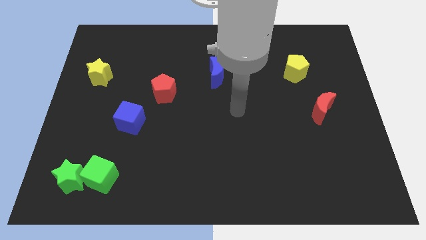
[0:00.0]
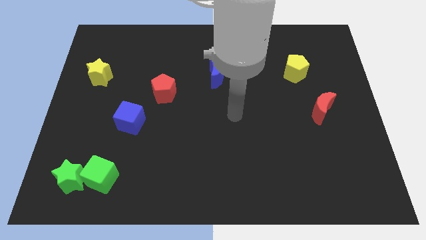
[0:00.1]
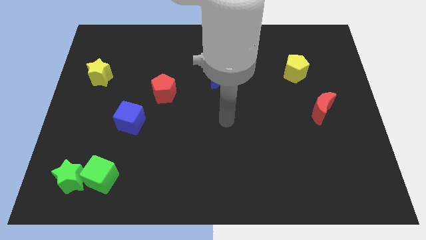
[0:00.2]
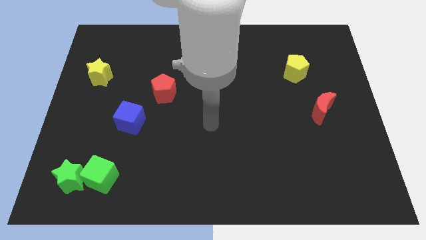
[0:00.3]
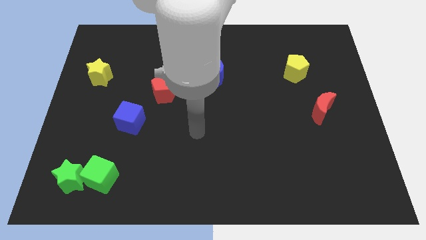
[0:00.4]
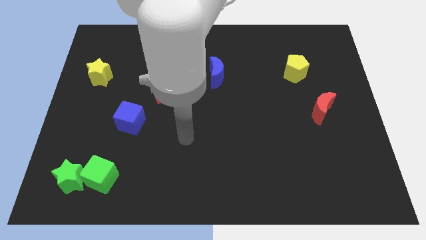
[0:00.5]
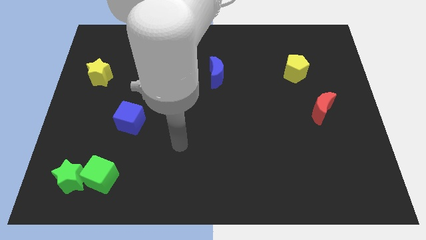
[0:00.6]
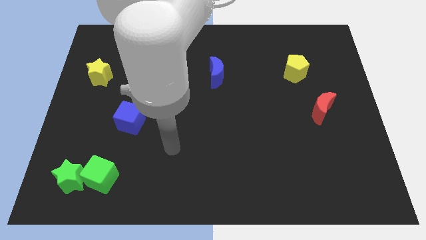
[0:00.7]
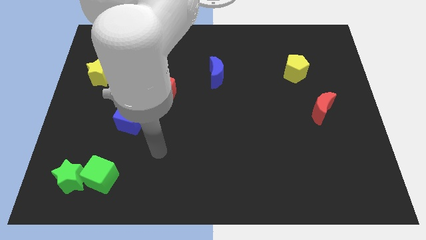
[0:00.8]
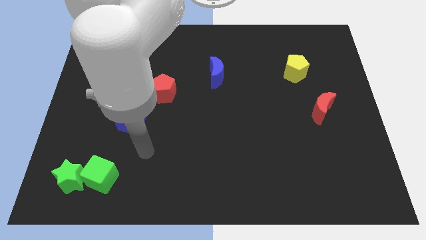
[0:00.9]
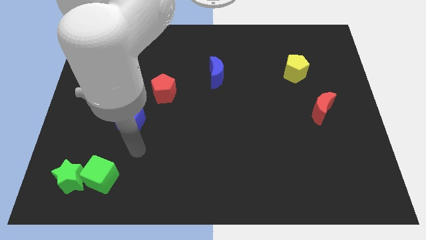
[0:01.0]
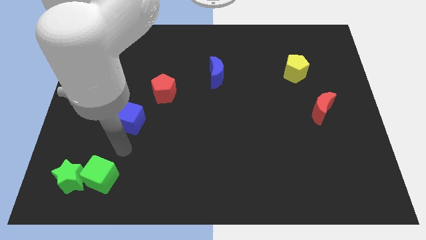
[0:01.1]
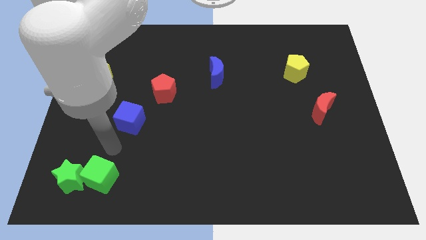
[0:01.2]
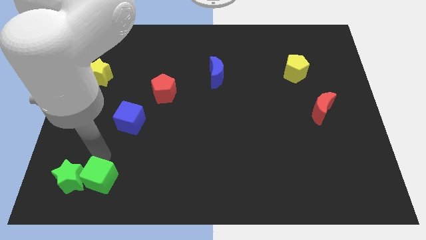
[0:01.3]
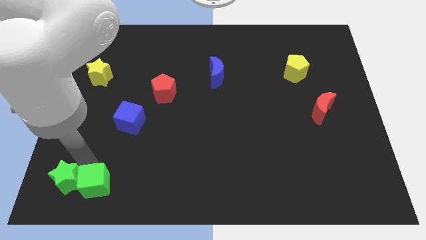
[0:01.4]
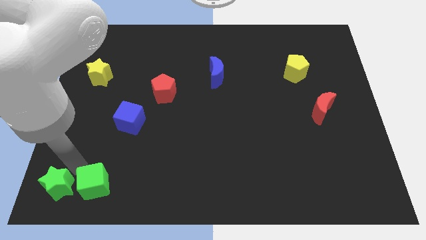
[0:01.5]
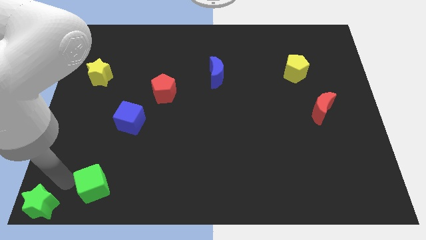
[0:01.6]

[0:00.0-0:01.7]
move the green cube away from the green star

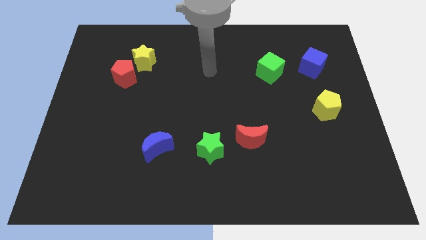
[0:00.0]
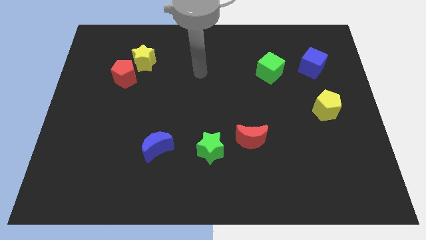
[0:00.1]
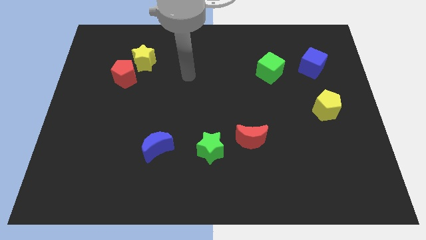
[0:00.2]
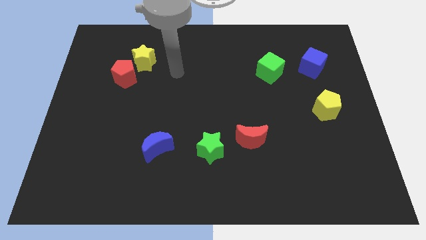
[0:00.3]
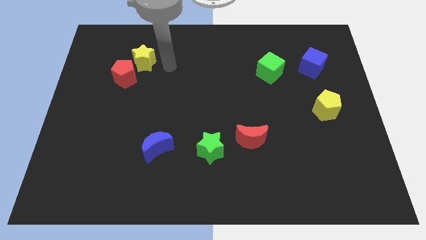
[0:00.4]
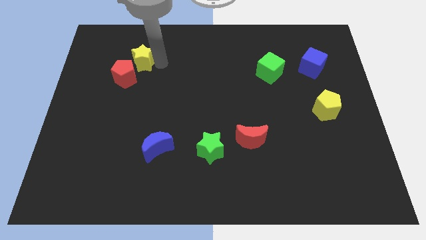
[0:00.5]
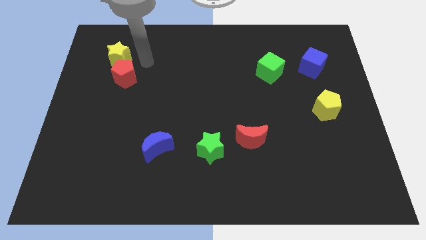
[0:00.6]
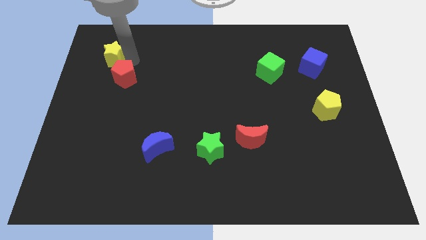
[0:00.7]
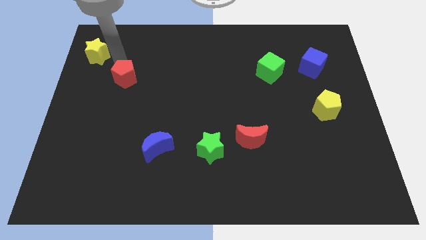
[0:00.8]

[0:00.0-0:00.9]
move the red pentagon away from the yellow star

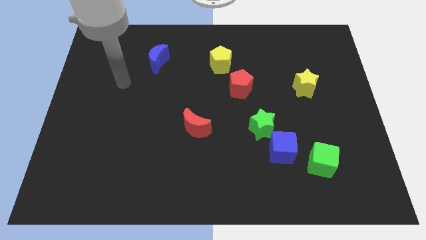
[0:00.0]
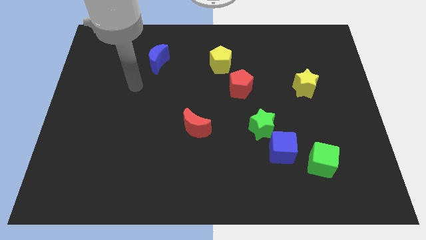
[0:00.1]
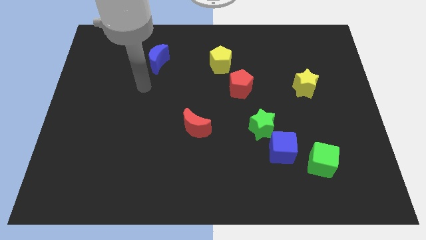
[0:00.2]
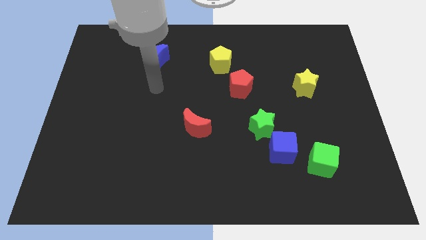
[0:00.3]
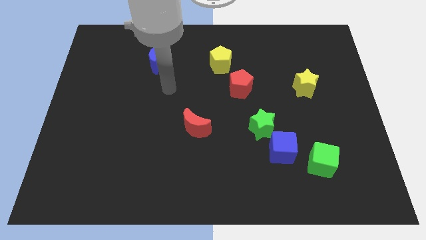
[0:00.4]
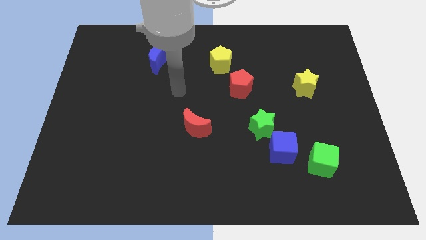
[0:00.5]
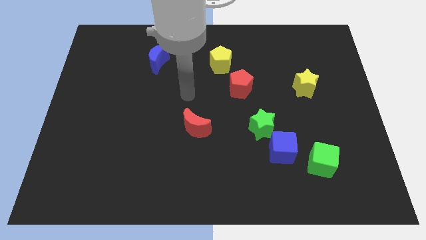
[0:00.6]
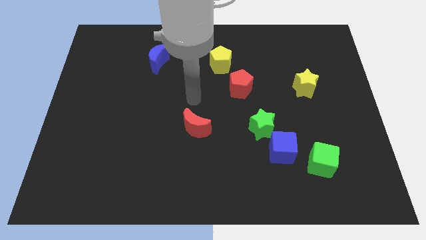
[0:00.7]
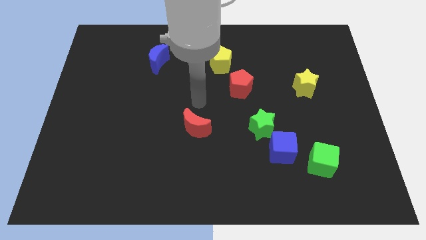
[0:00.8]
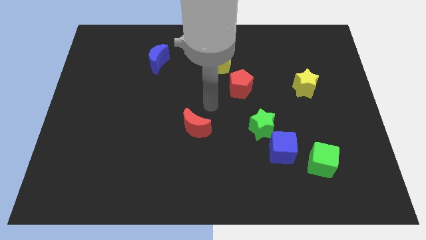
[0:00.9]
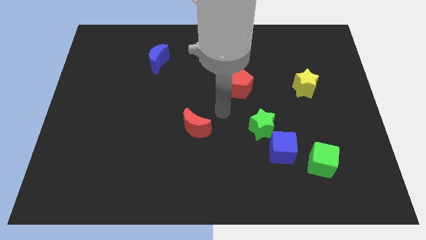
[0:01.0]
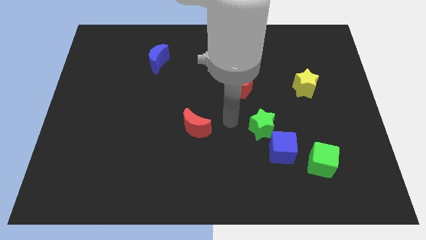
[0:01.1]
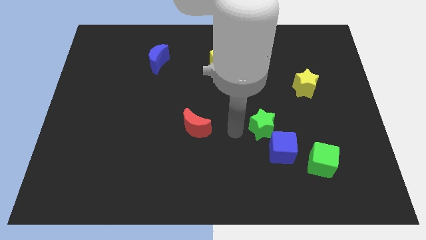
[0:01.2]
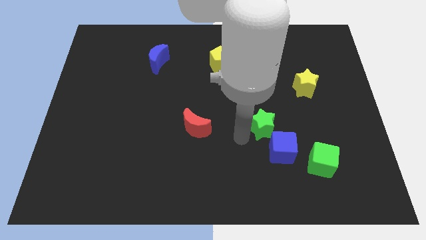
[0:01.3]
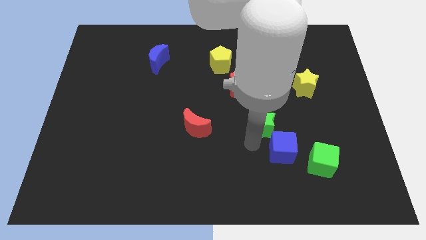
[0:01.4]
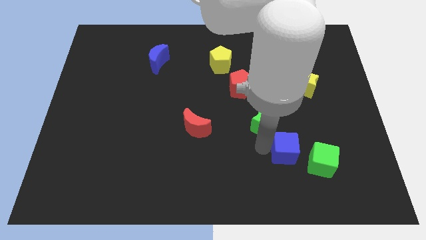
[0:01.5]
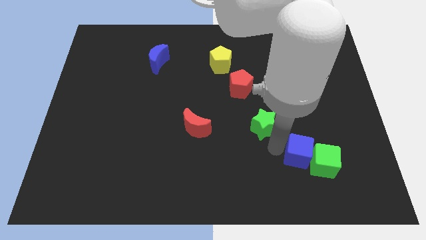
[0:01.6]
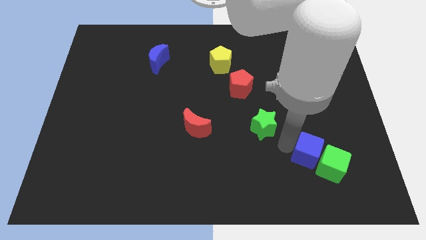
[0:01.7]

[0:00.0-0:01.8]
move the green star away from the blue cube

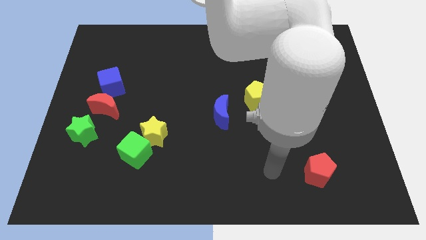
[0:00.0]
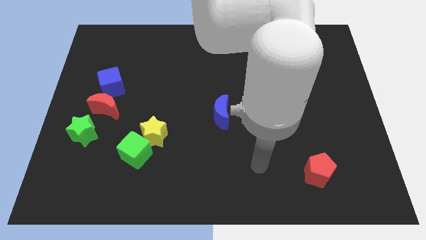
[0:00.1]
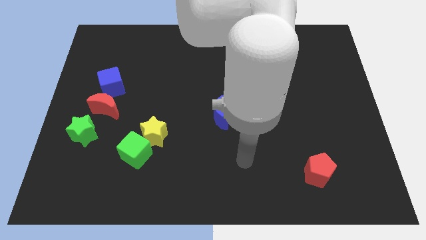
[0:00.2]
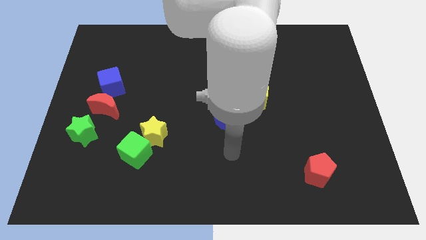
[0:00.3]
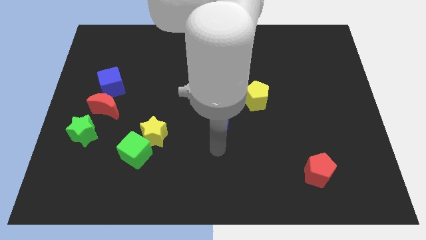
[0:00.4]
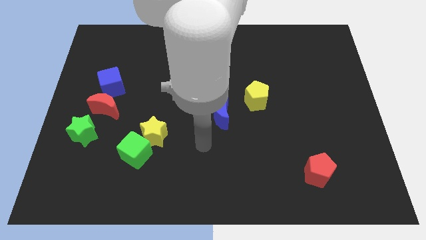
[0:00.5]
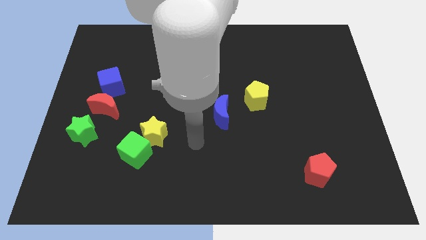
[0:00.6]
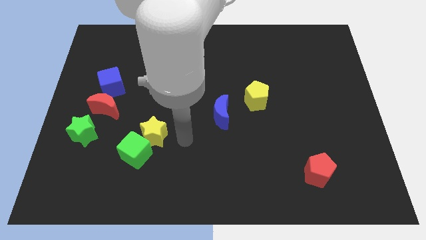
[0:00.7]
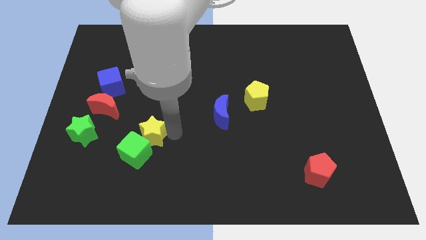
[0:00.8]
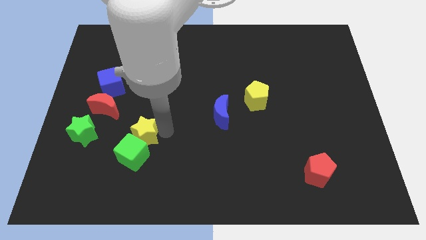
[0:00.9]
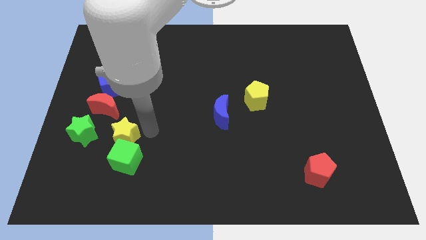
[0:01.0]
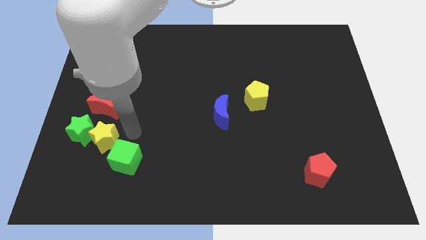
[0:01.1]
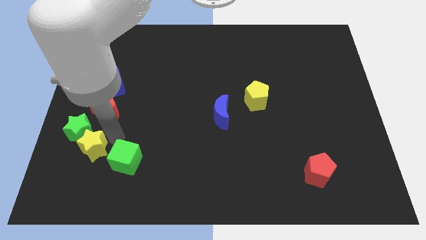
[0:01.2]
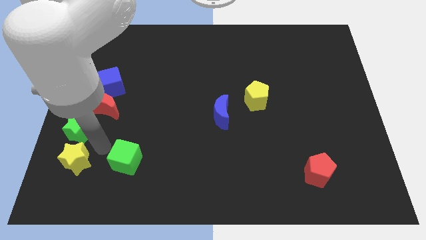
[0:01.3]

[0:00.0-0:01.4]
move the green cube away from the yellow star

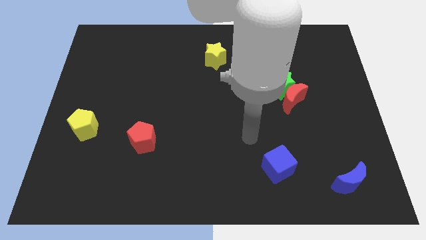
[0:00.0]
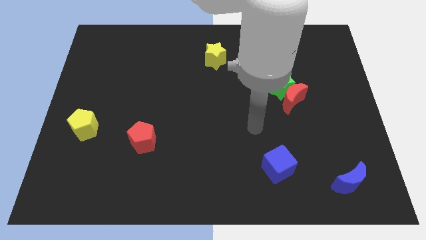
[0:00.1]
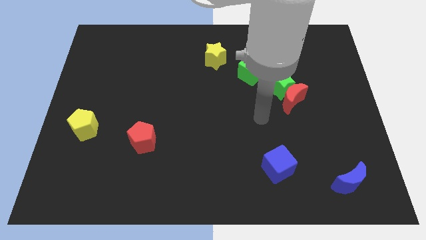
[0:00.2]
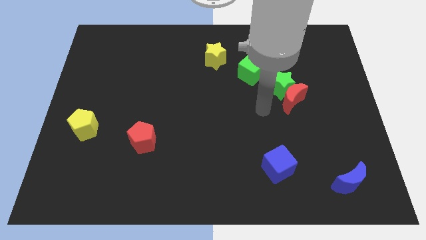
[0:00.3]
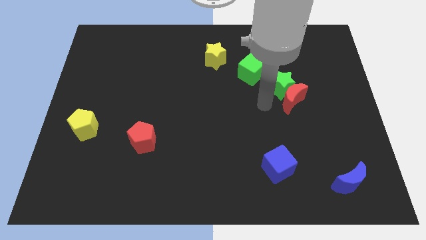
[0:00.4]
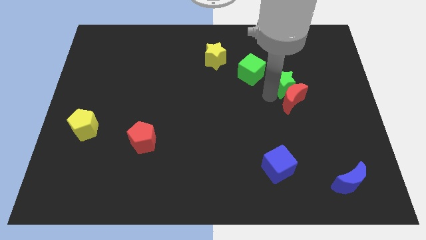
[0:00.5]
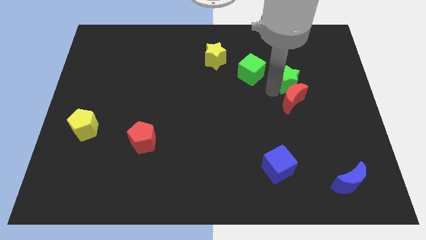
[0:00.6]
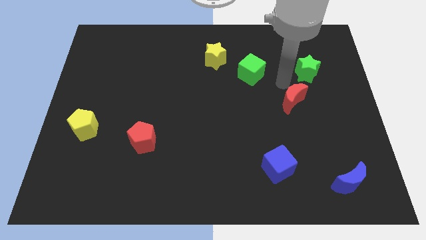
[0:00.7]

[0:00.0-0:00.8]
pull the red moon apart from the green star

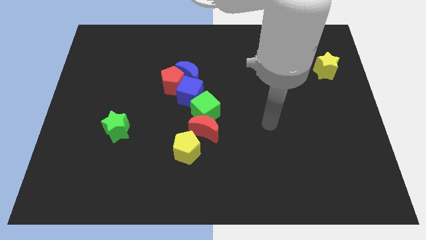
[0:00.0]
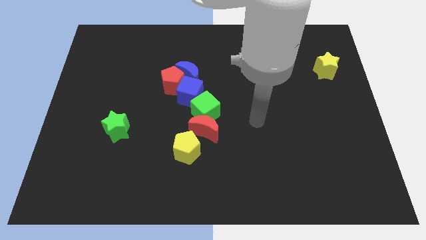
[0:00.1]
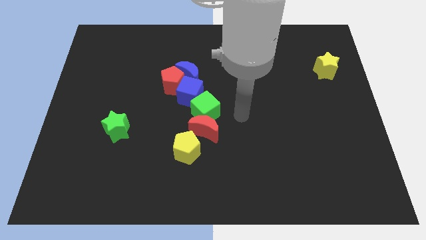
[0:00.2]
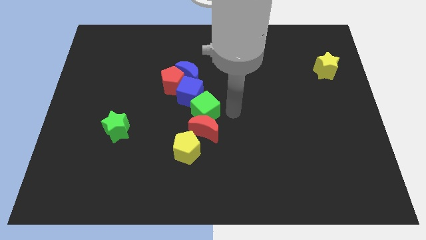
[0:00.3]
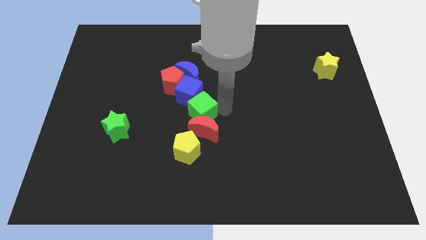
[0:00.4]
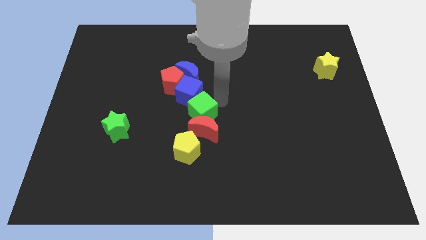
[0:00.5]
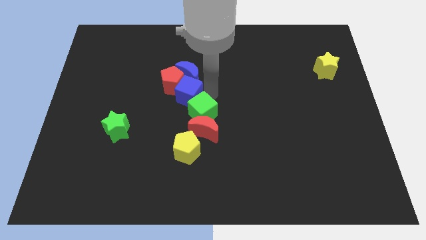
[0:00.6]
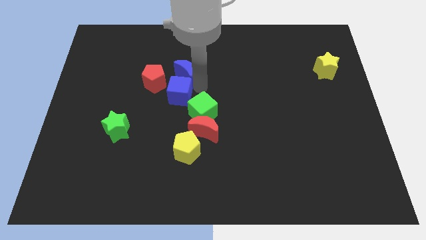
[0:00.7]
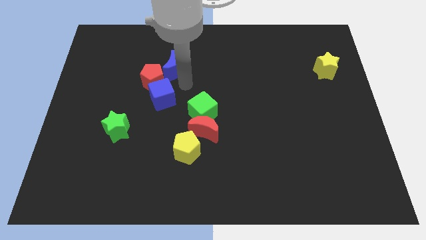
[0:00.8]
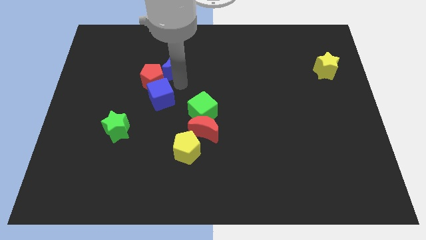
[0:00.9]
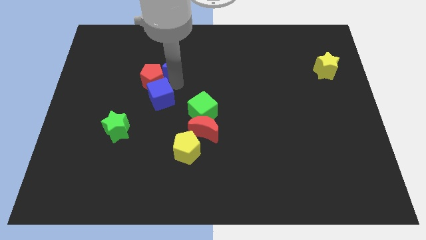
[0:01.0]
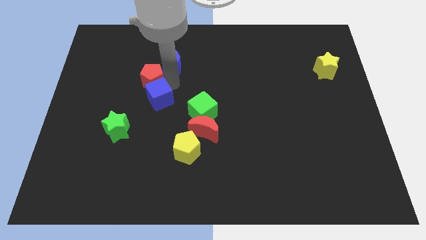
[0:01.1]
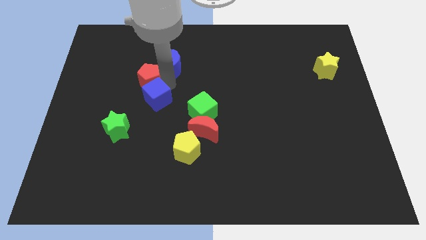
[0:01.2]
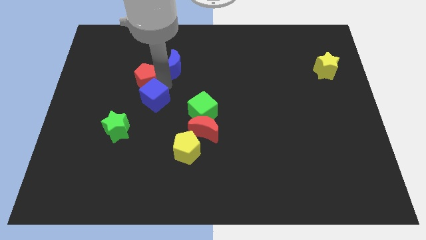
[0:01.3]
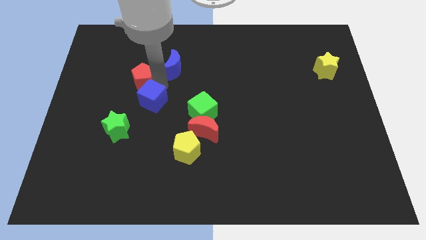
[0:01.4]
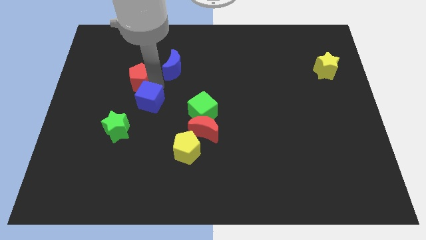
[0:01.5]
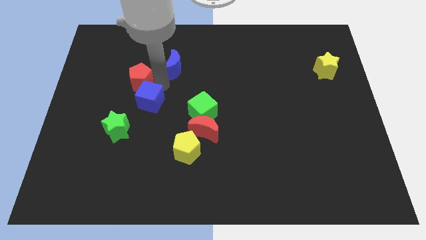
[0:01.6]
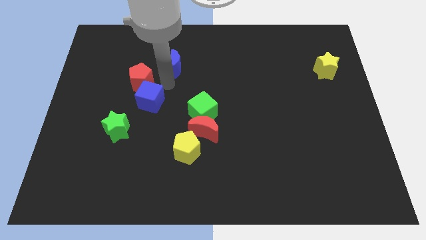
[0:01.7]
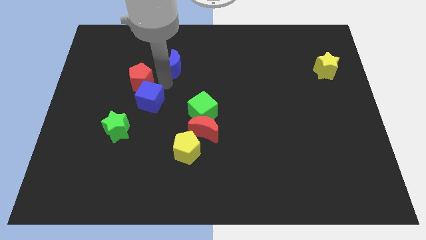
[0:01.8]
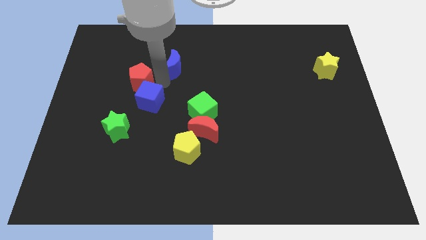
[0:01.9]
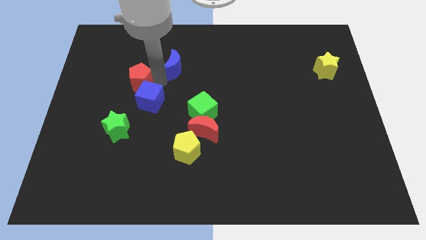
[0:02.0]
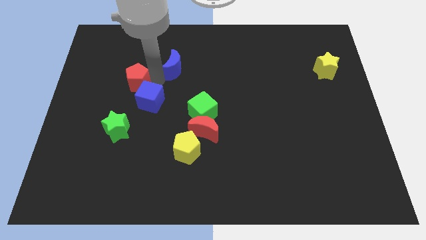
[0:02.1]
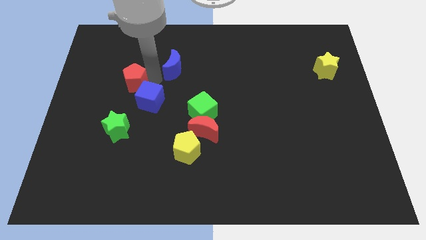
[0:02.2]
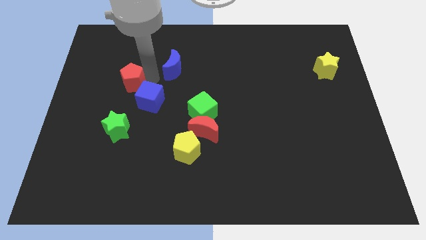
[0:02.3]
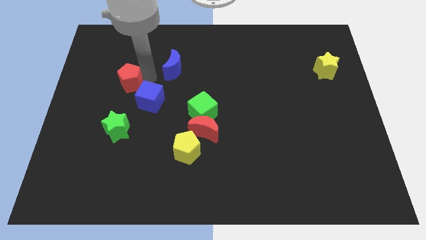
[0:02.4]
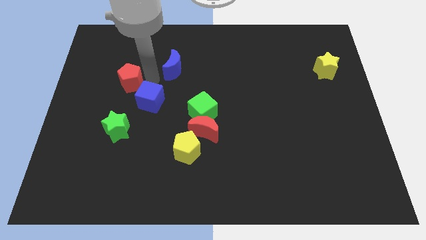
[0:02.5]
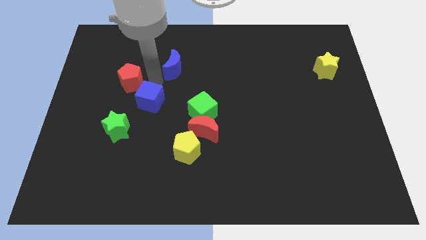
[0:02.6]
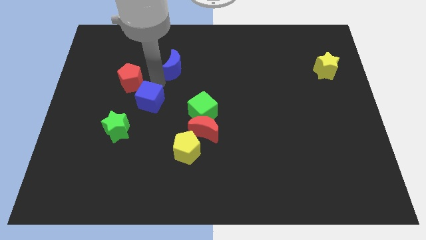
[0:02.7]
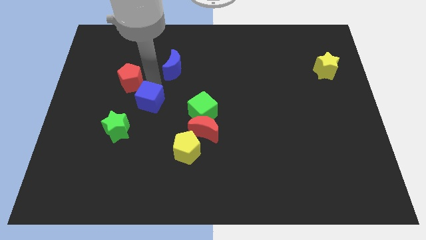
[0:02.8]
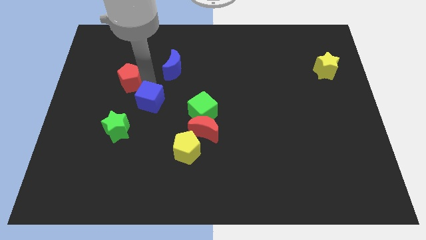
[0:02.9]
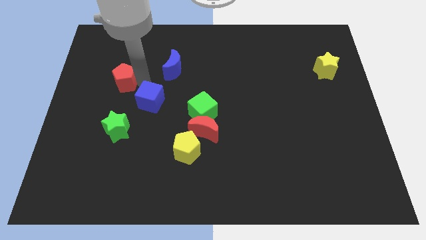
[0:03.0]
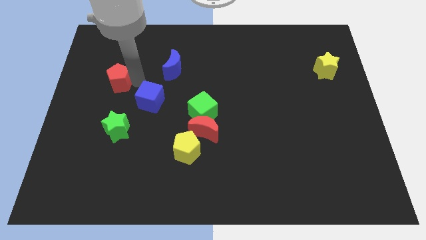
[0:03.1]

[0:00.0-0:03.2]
separate the red pentagon from the blue moon and blue cube
